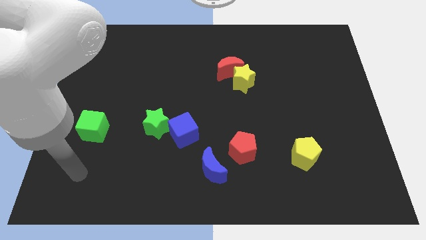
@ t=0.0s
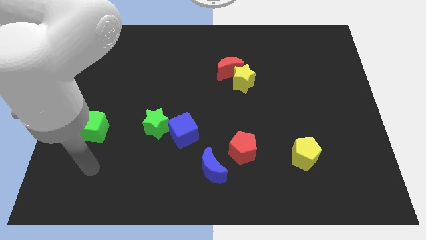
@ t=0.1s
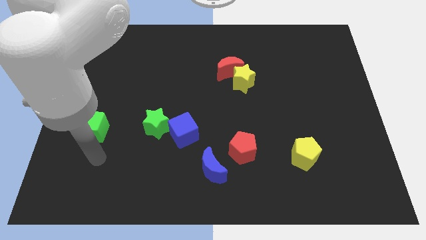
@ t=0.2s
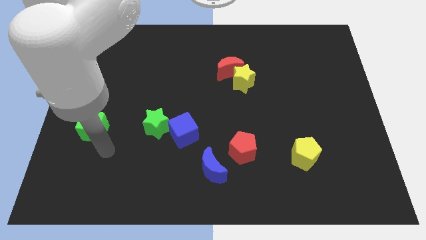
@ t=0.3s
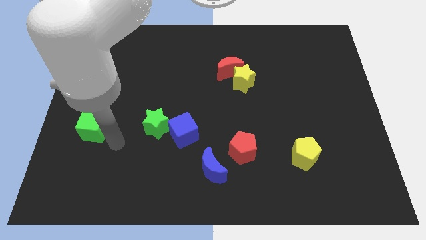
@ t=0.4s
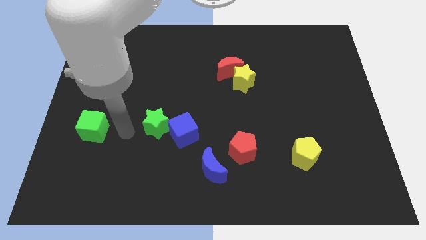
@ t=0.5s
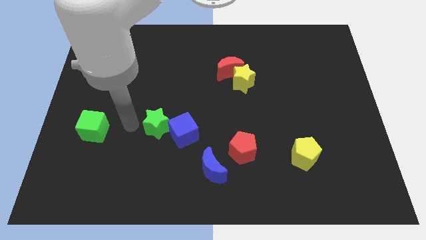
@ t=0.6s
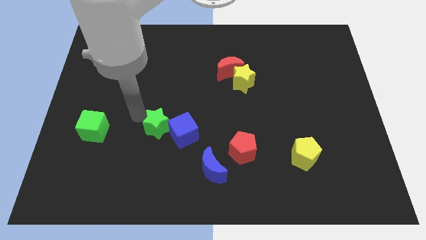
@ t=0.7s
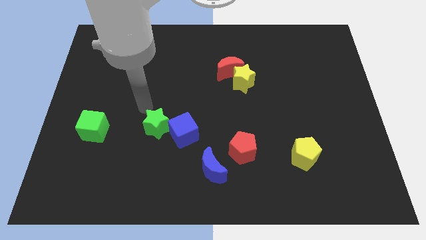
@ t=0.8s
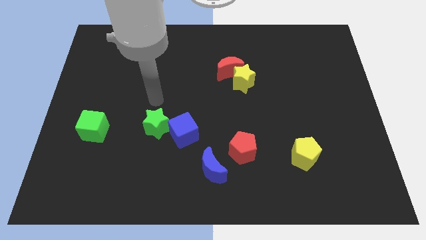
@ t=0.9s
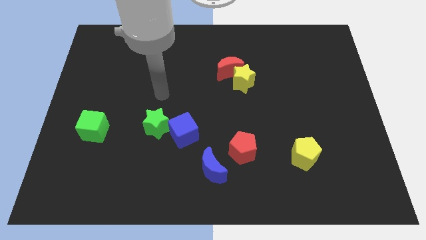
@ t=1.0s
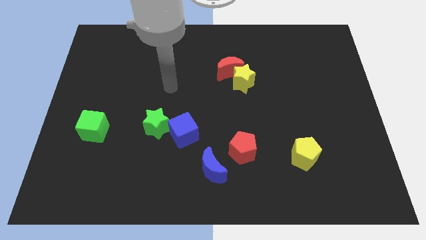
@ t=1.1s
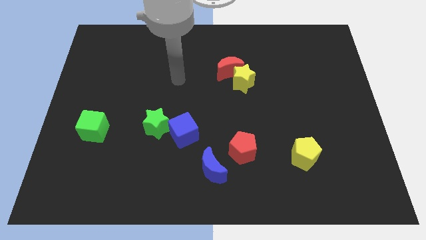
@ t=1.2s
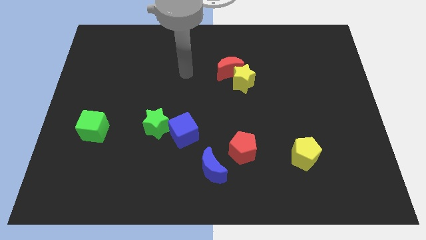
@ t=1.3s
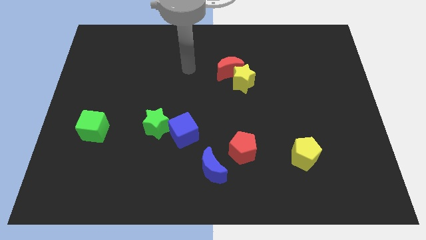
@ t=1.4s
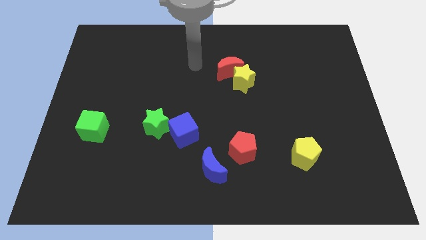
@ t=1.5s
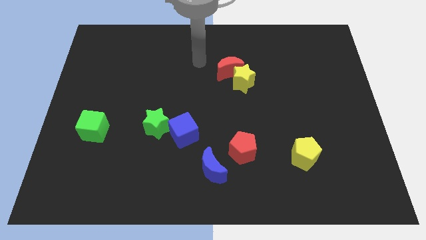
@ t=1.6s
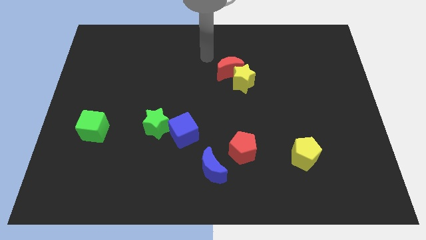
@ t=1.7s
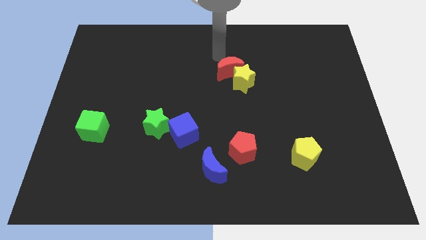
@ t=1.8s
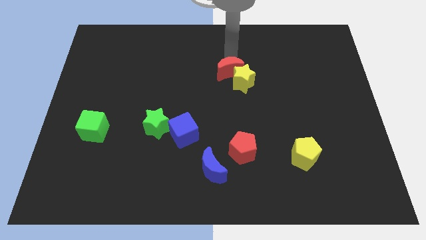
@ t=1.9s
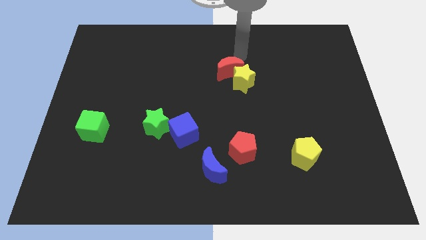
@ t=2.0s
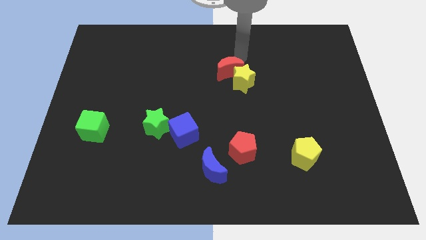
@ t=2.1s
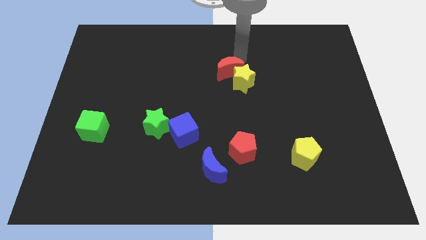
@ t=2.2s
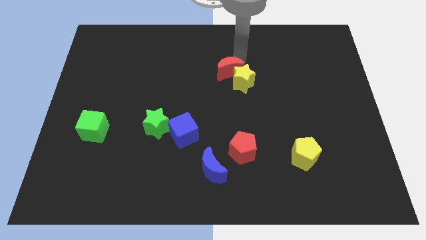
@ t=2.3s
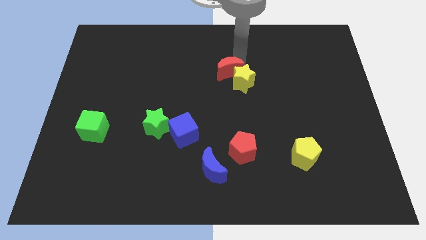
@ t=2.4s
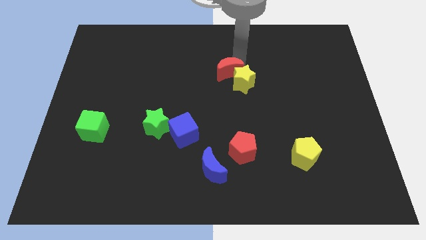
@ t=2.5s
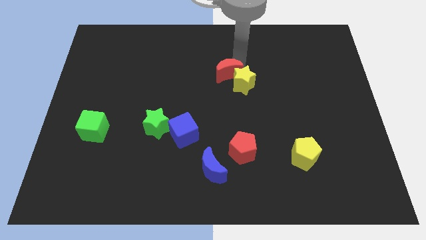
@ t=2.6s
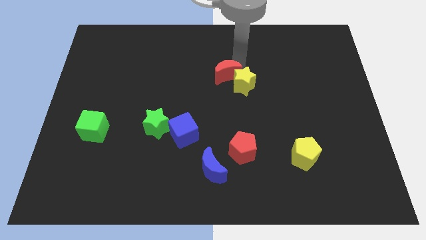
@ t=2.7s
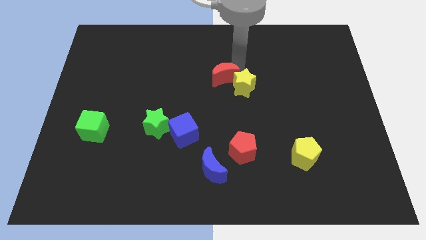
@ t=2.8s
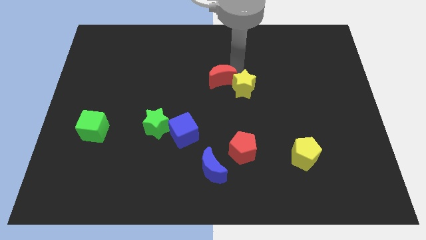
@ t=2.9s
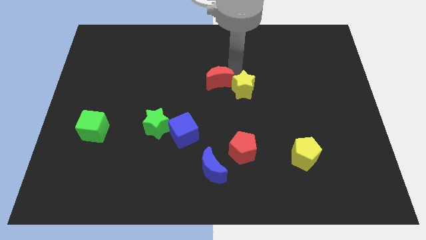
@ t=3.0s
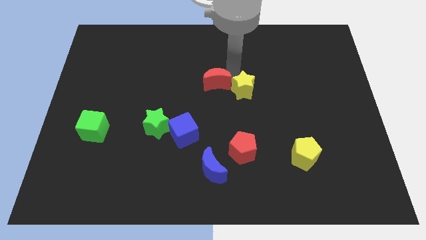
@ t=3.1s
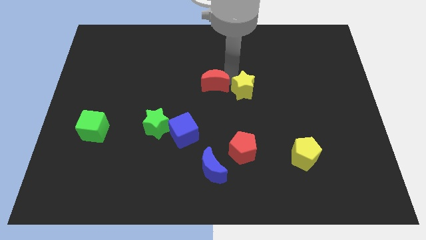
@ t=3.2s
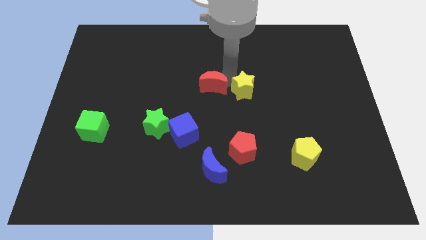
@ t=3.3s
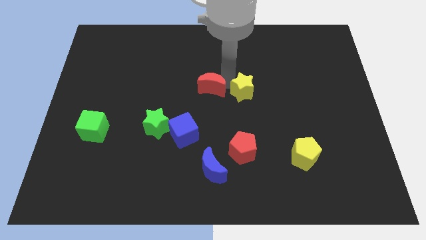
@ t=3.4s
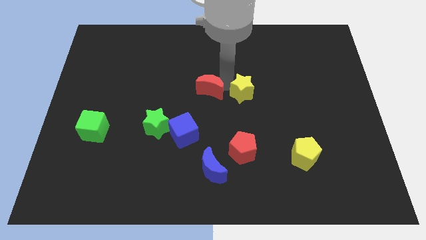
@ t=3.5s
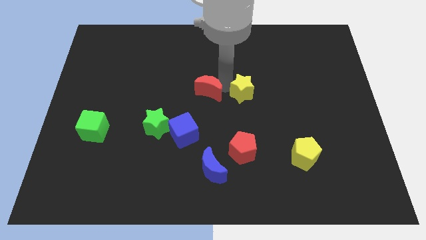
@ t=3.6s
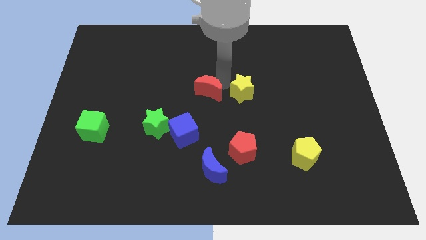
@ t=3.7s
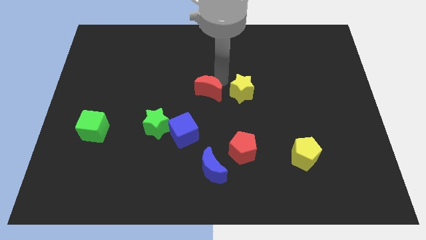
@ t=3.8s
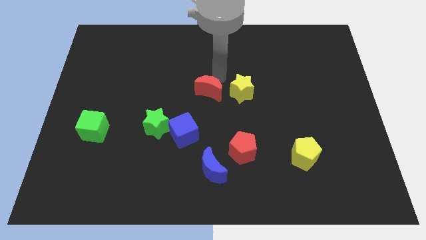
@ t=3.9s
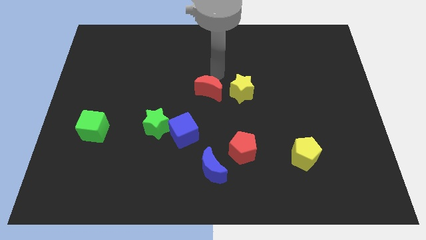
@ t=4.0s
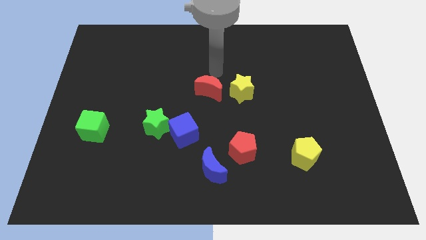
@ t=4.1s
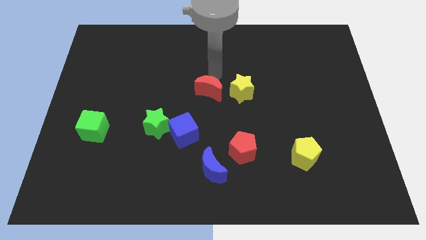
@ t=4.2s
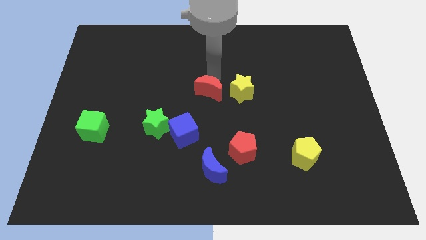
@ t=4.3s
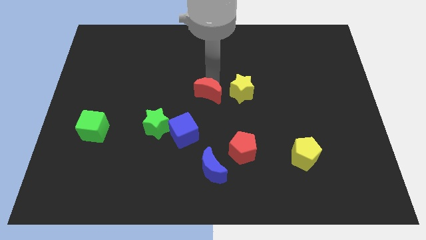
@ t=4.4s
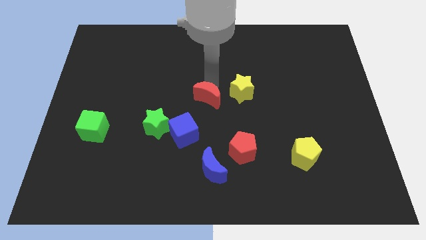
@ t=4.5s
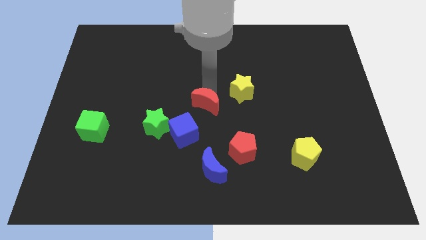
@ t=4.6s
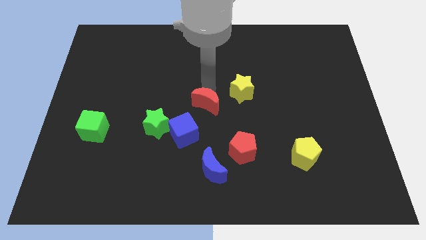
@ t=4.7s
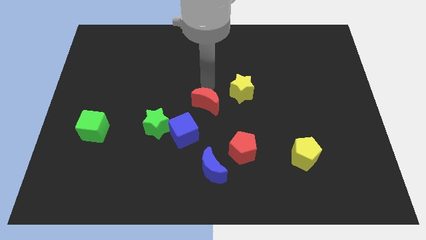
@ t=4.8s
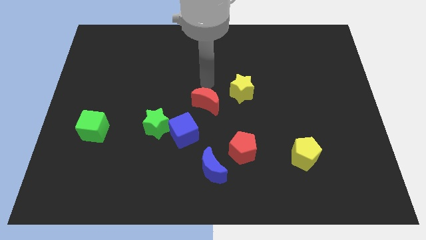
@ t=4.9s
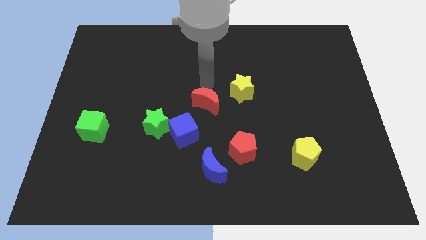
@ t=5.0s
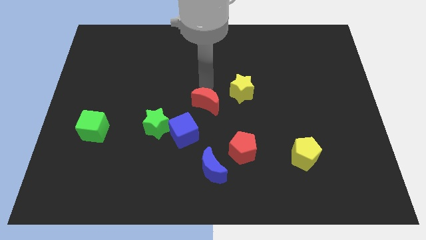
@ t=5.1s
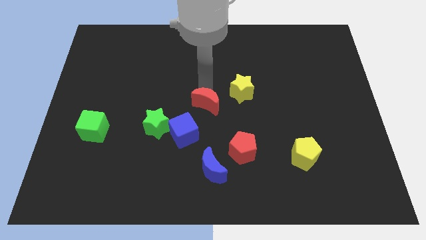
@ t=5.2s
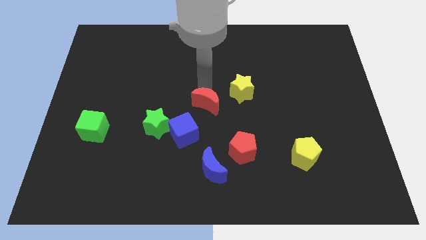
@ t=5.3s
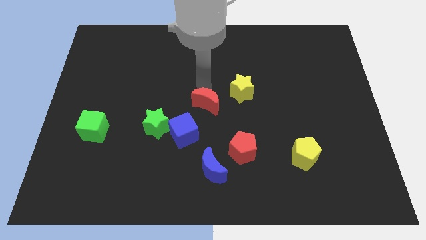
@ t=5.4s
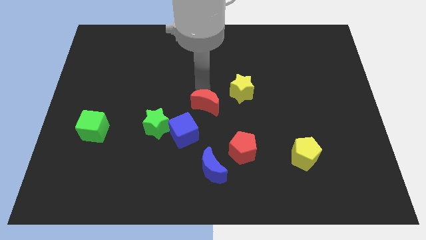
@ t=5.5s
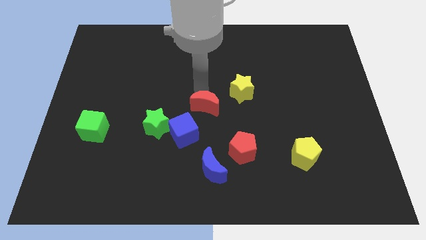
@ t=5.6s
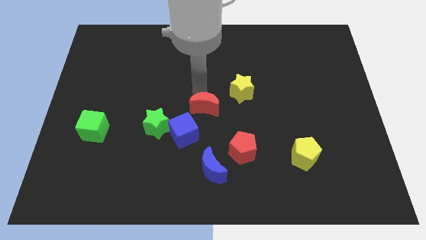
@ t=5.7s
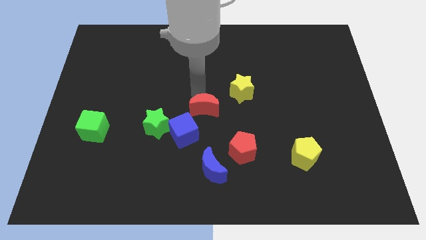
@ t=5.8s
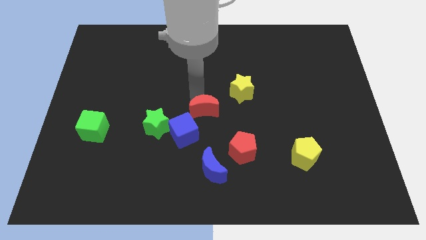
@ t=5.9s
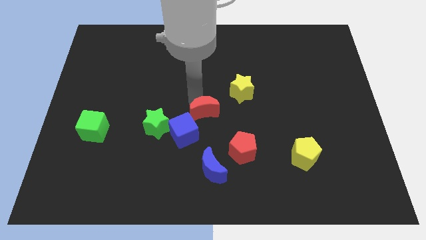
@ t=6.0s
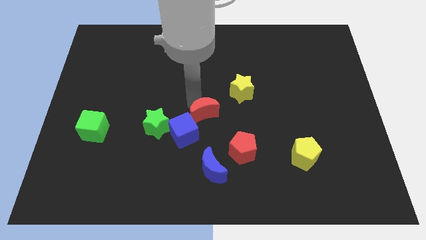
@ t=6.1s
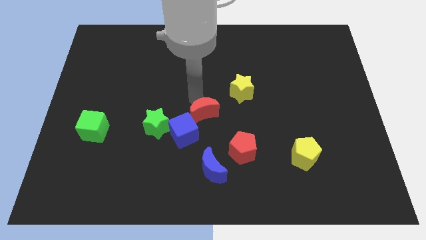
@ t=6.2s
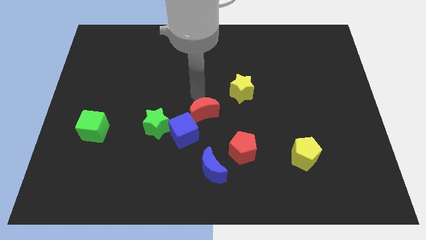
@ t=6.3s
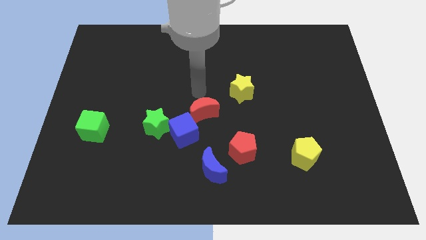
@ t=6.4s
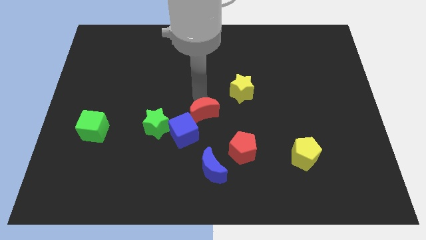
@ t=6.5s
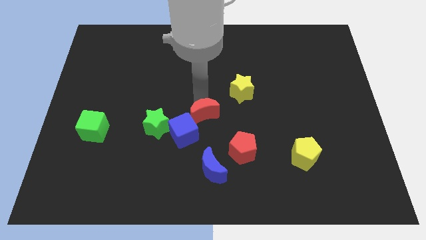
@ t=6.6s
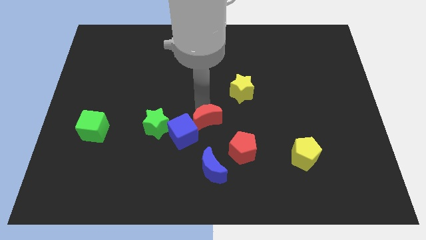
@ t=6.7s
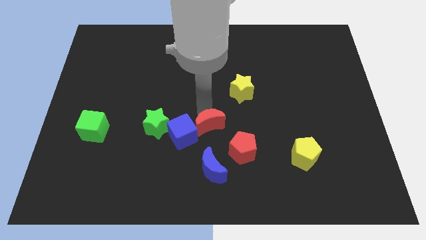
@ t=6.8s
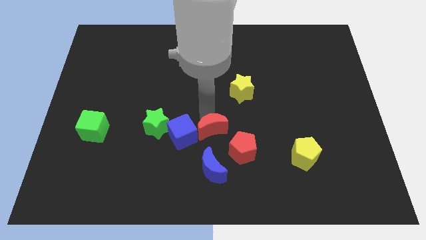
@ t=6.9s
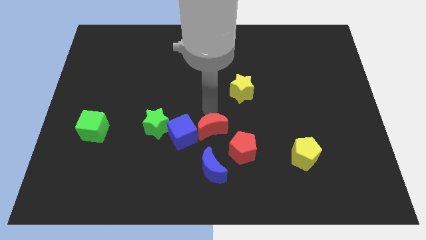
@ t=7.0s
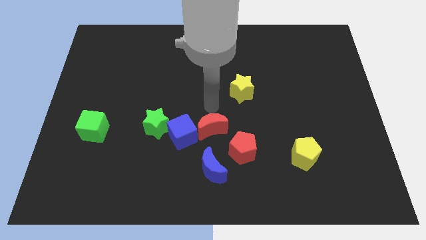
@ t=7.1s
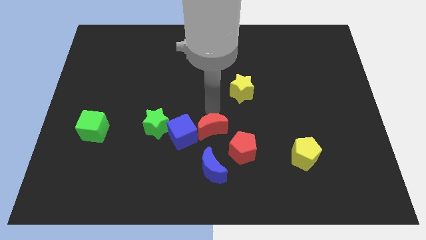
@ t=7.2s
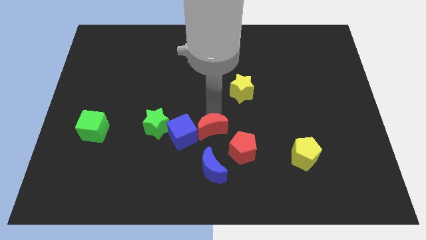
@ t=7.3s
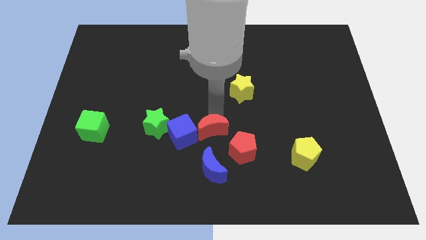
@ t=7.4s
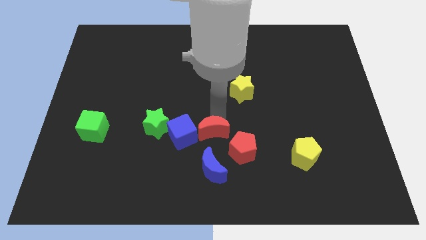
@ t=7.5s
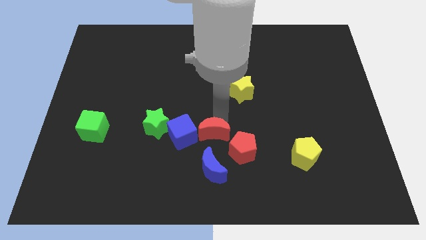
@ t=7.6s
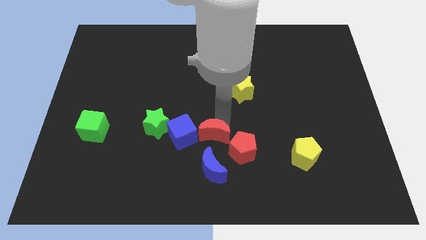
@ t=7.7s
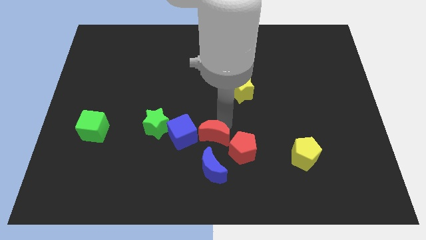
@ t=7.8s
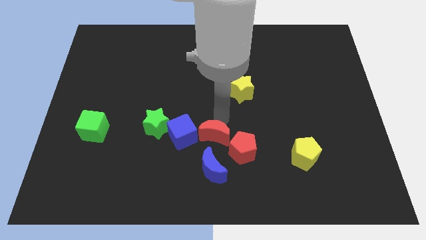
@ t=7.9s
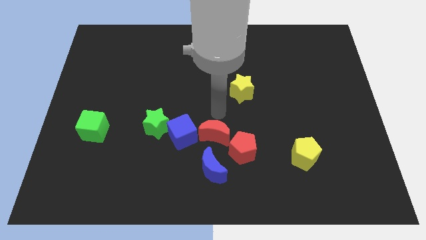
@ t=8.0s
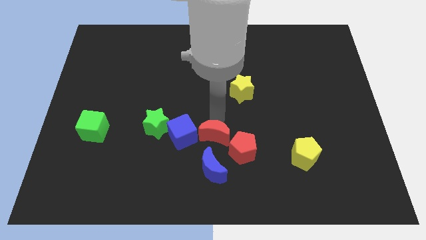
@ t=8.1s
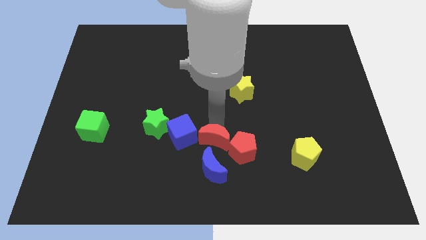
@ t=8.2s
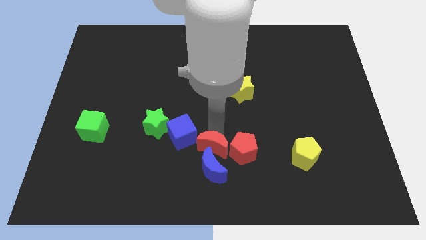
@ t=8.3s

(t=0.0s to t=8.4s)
put the red moon close to the blue moon
